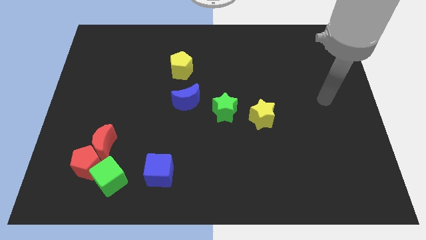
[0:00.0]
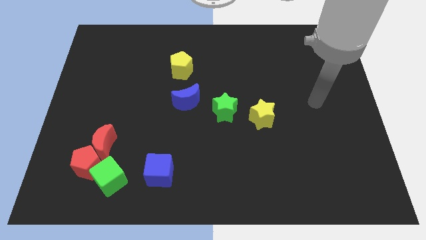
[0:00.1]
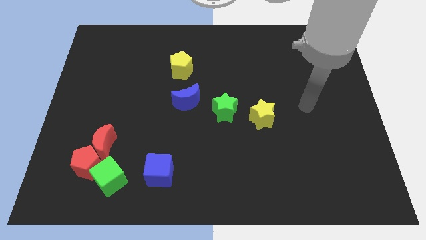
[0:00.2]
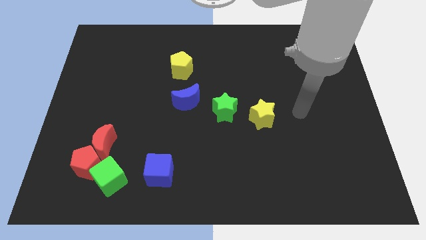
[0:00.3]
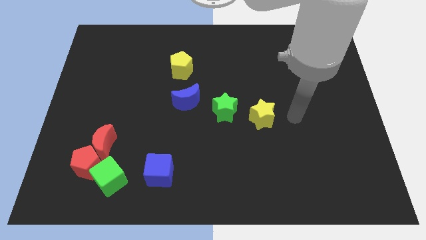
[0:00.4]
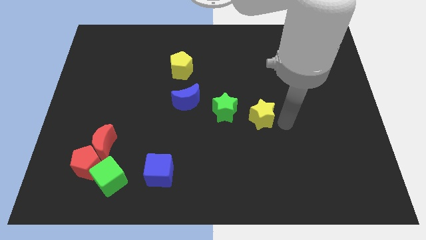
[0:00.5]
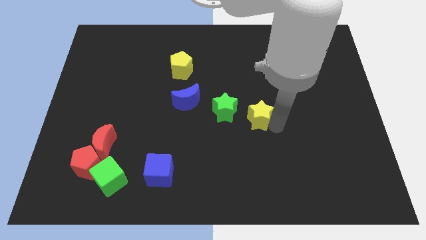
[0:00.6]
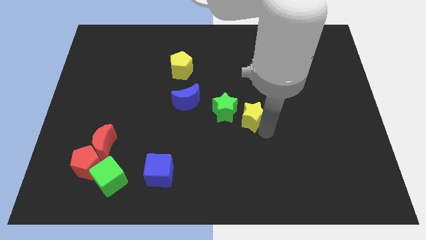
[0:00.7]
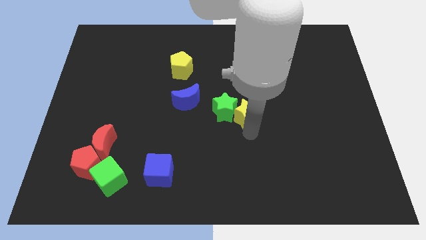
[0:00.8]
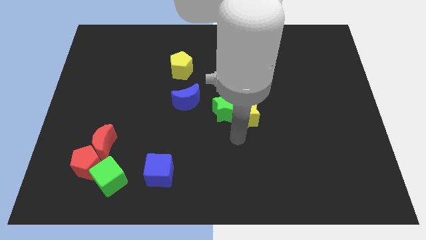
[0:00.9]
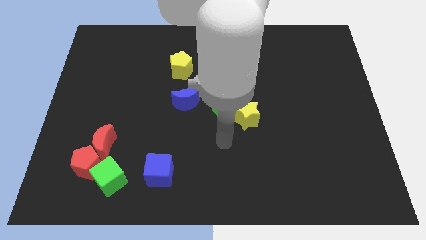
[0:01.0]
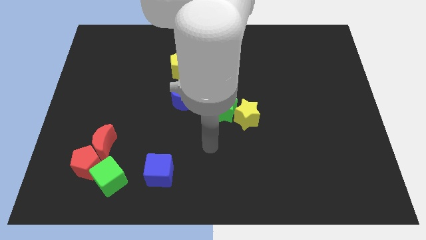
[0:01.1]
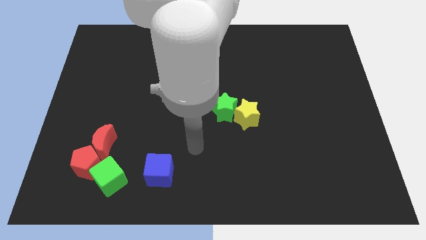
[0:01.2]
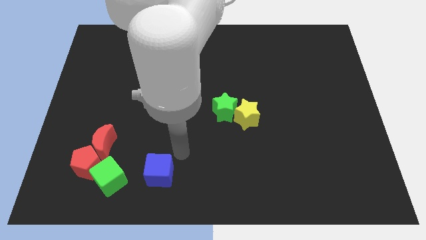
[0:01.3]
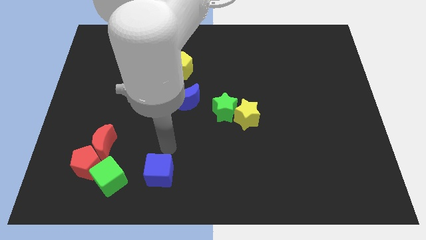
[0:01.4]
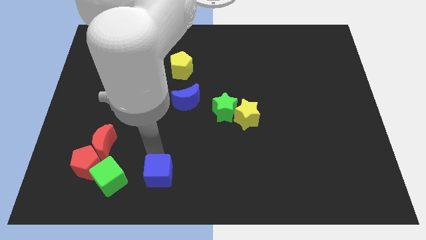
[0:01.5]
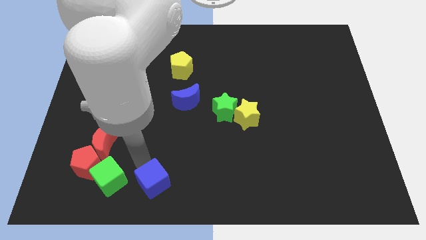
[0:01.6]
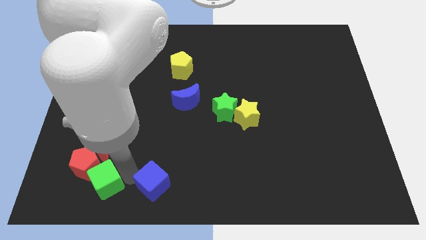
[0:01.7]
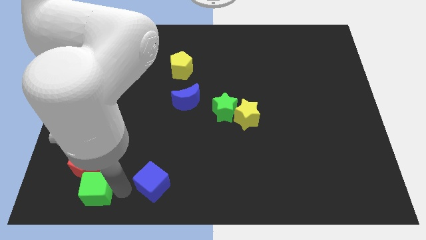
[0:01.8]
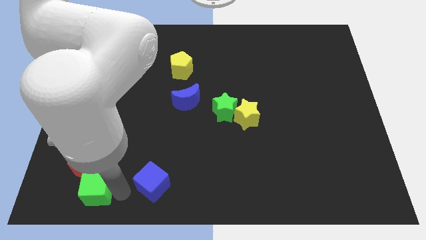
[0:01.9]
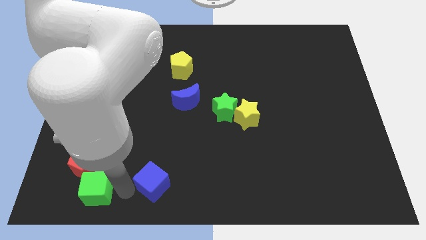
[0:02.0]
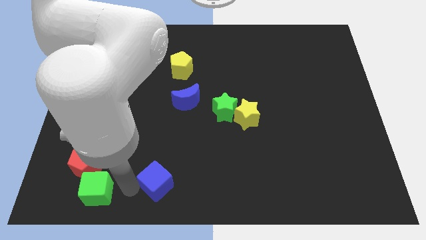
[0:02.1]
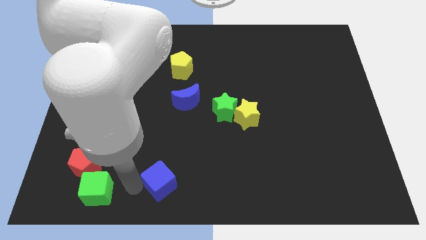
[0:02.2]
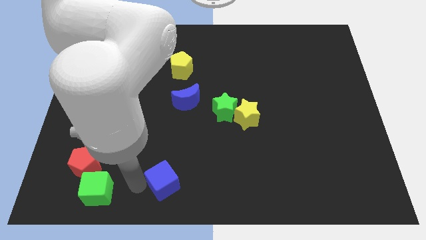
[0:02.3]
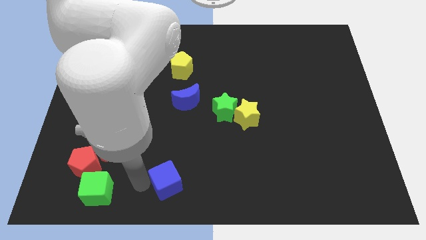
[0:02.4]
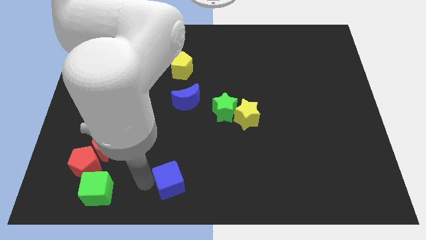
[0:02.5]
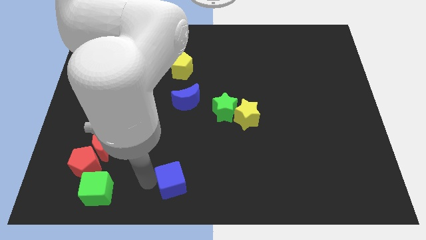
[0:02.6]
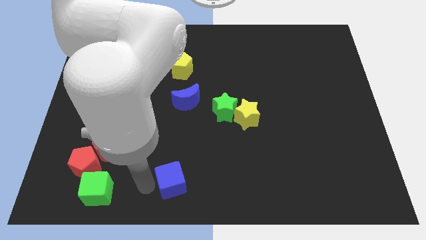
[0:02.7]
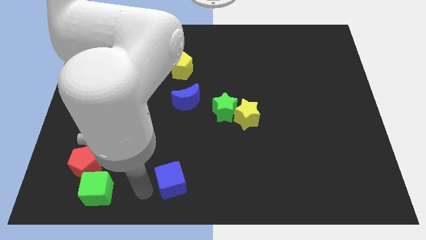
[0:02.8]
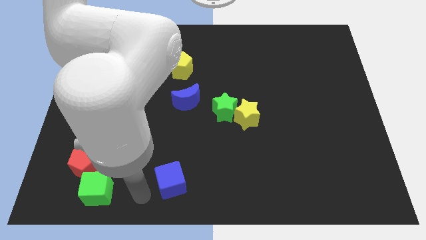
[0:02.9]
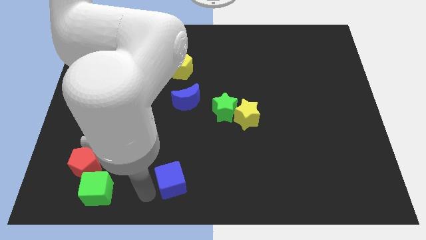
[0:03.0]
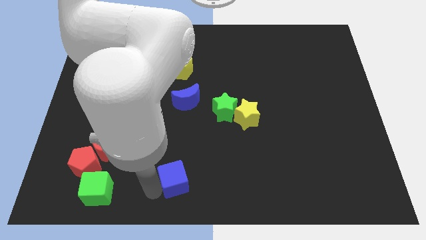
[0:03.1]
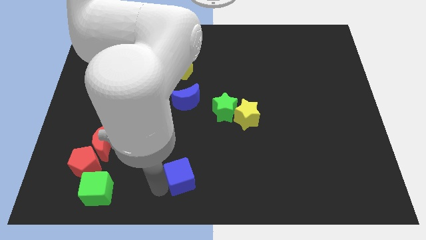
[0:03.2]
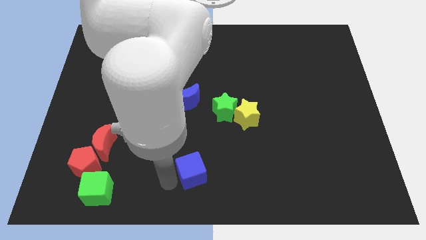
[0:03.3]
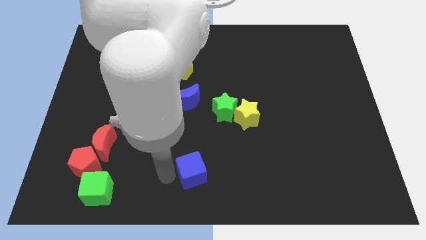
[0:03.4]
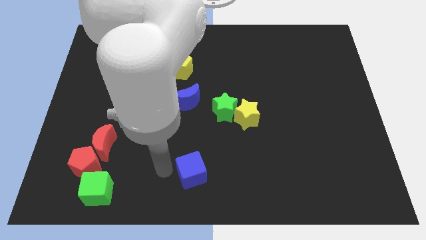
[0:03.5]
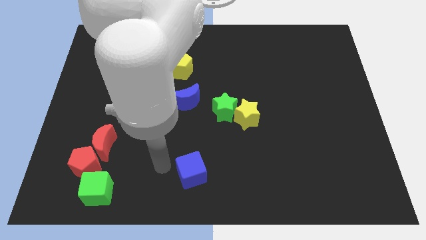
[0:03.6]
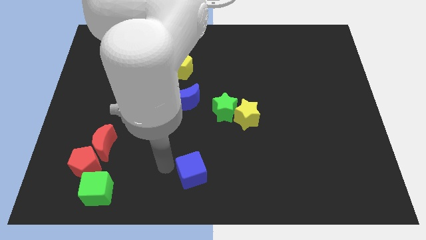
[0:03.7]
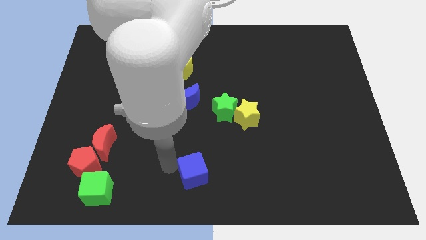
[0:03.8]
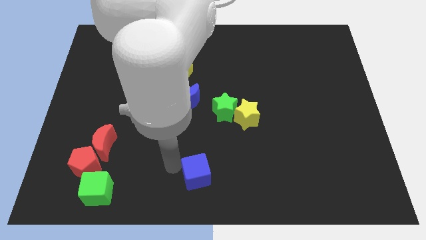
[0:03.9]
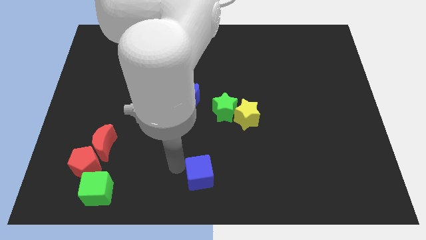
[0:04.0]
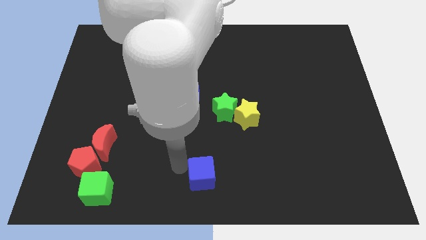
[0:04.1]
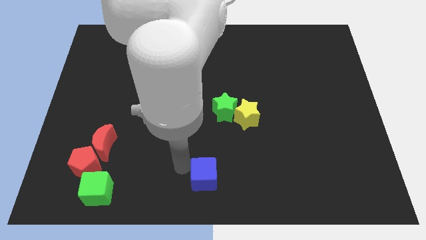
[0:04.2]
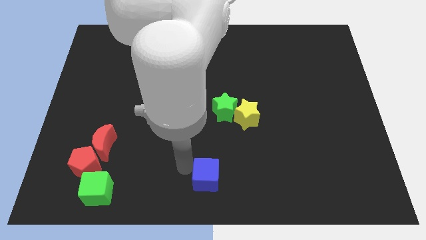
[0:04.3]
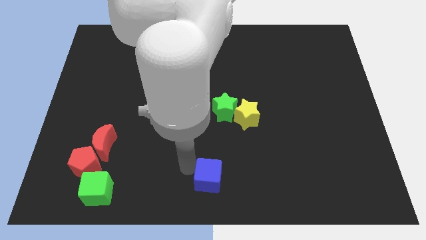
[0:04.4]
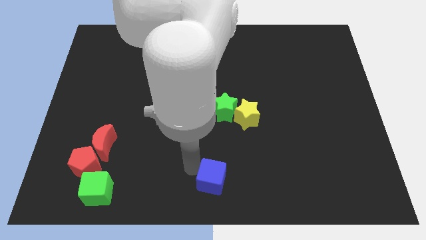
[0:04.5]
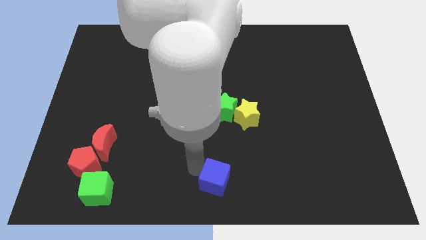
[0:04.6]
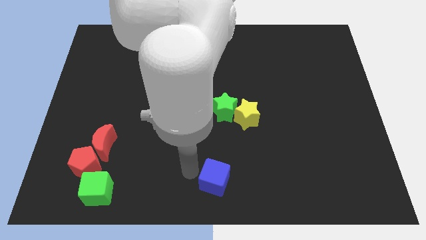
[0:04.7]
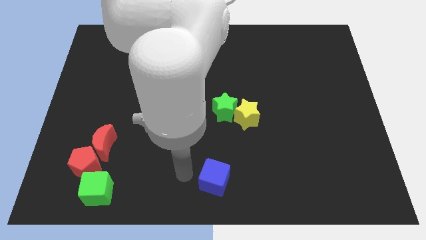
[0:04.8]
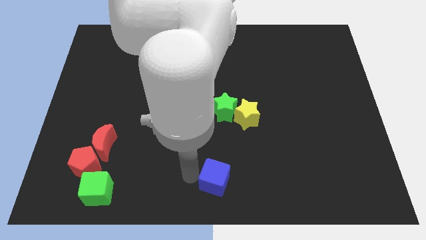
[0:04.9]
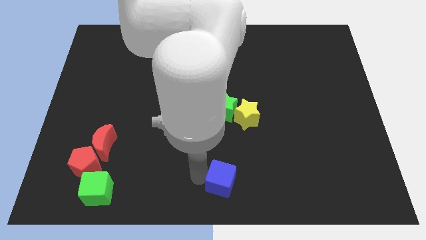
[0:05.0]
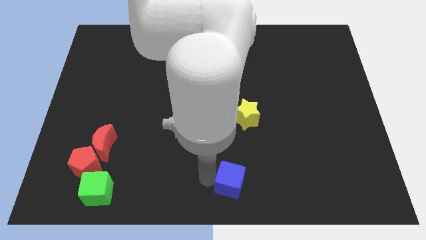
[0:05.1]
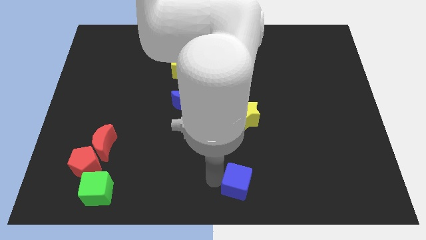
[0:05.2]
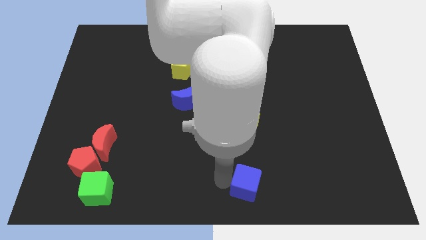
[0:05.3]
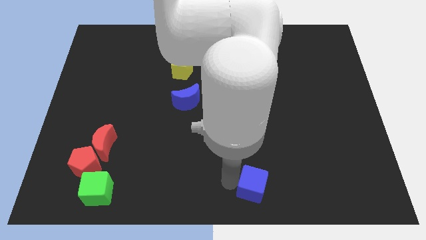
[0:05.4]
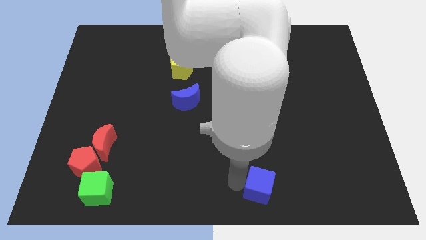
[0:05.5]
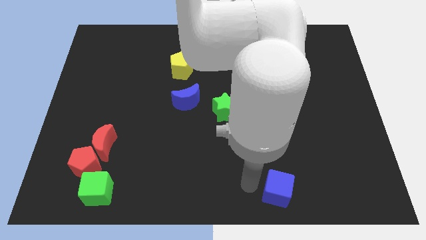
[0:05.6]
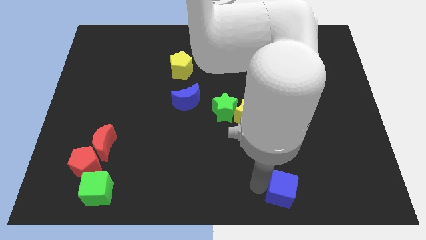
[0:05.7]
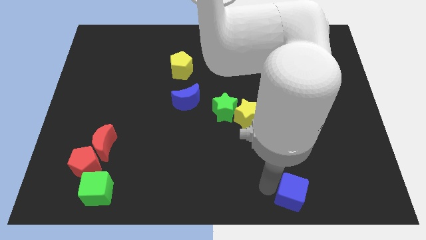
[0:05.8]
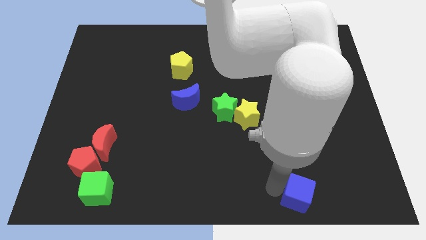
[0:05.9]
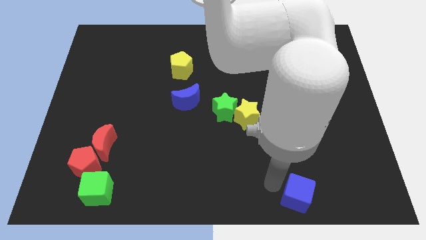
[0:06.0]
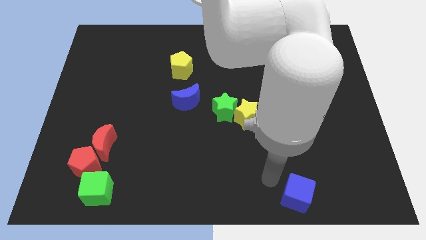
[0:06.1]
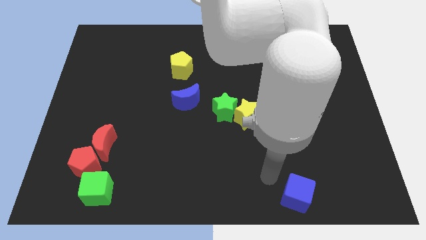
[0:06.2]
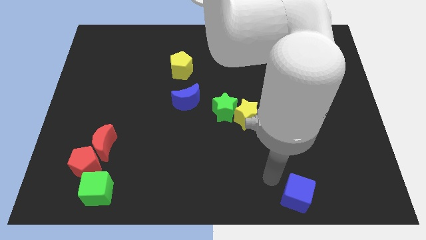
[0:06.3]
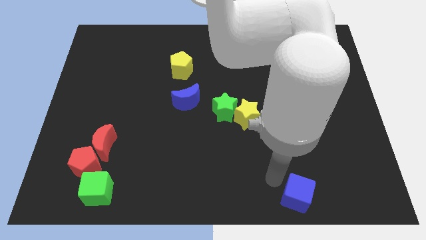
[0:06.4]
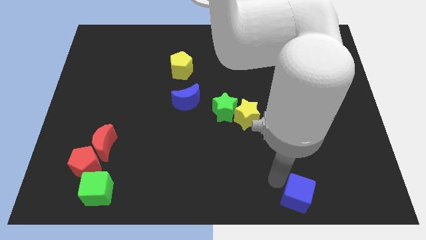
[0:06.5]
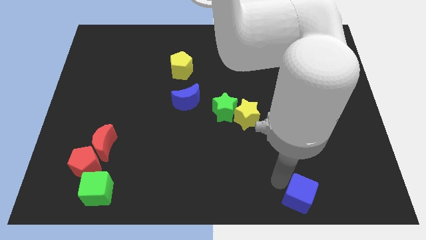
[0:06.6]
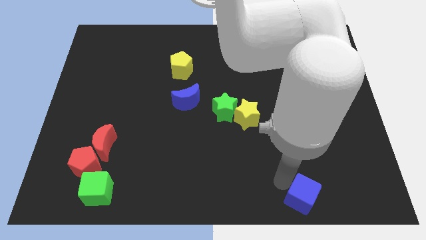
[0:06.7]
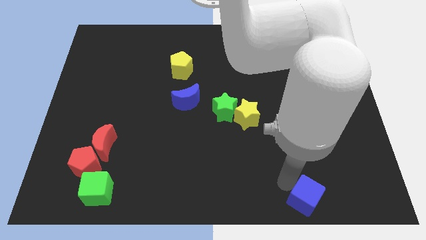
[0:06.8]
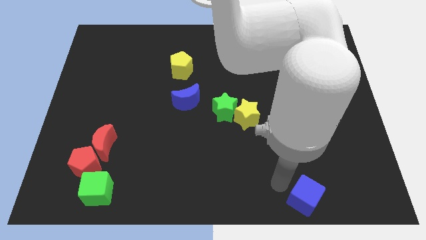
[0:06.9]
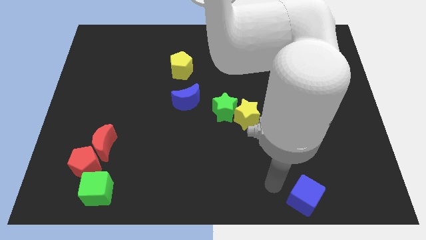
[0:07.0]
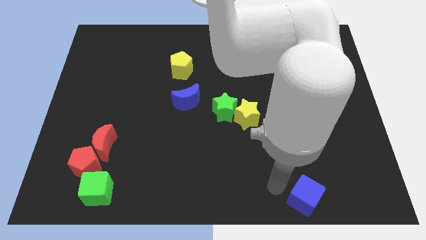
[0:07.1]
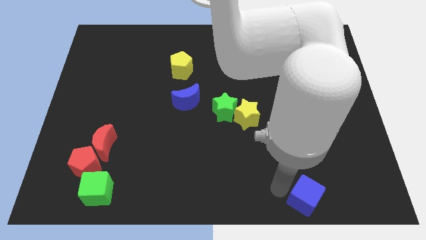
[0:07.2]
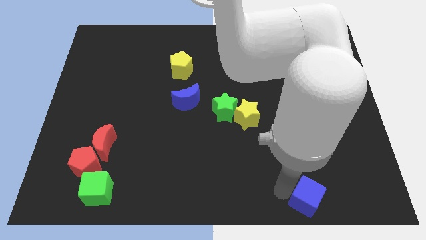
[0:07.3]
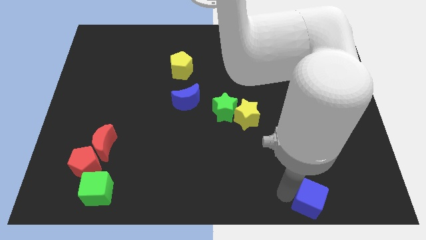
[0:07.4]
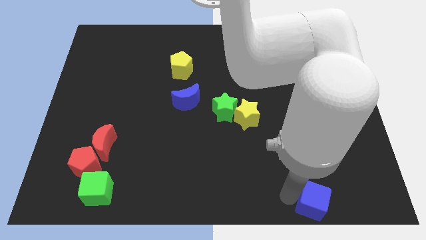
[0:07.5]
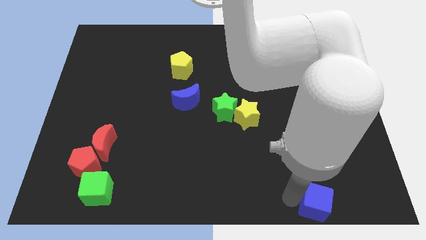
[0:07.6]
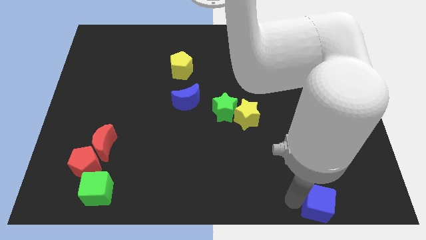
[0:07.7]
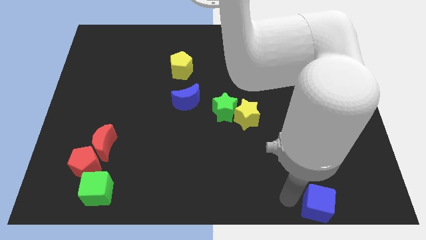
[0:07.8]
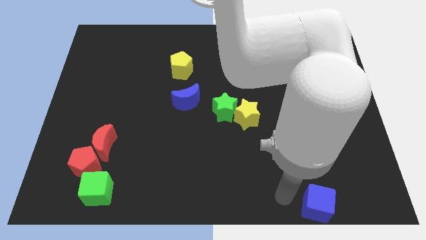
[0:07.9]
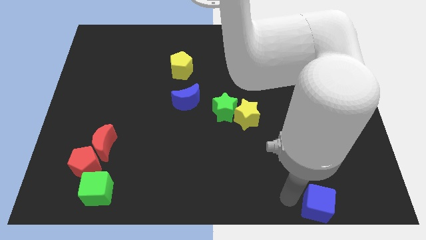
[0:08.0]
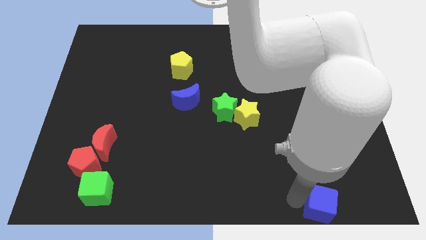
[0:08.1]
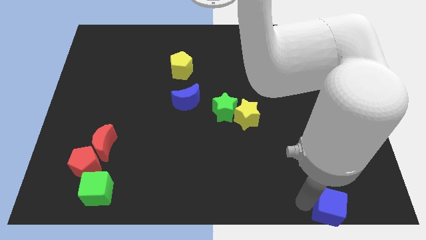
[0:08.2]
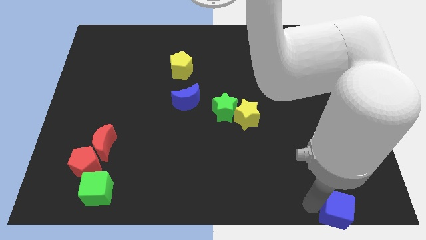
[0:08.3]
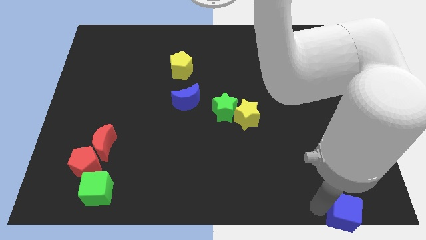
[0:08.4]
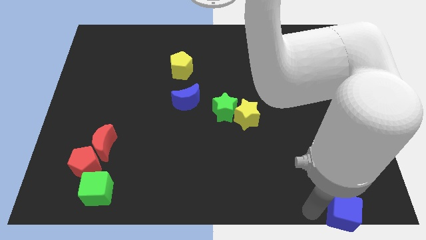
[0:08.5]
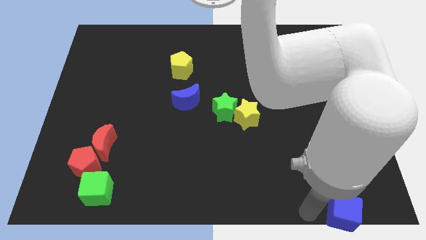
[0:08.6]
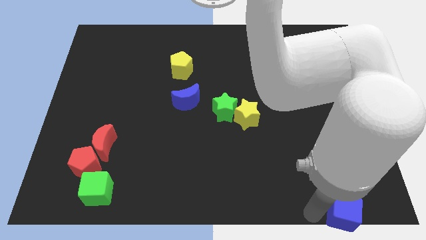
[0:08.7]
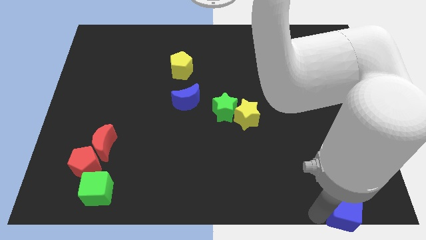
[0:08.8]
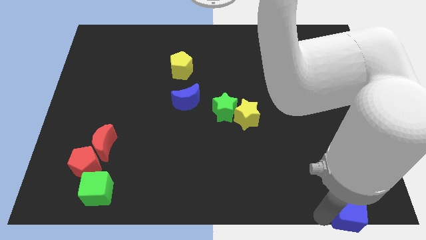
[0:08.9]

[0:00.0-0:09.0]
push the blue cube to the bottom right corner
